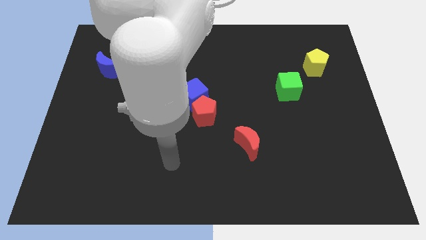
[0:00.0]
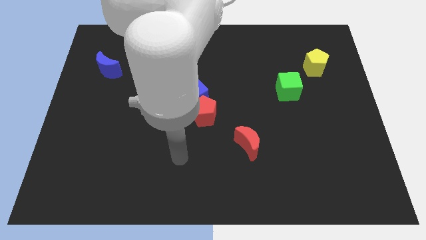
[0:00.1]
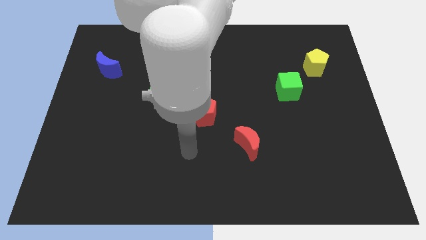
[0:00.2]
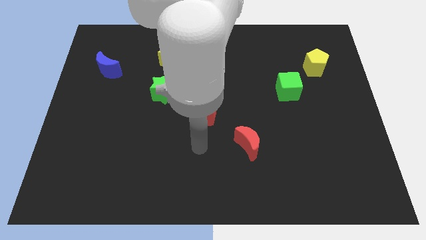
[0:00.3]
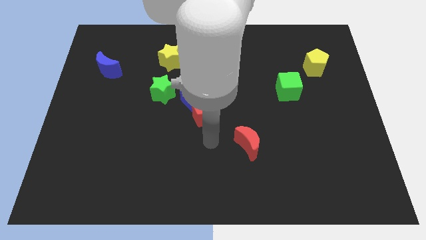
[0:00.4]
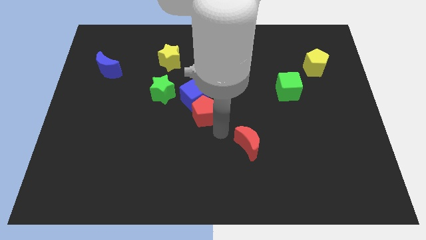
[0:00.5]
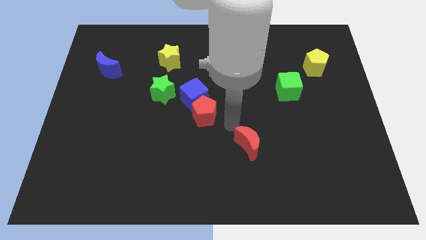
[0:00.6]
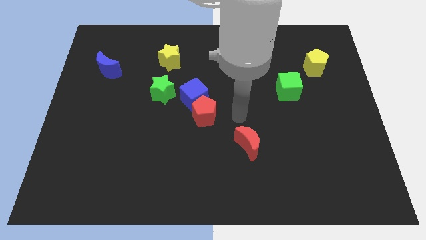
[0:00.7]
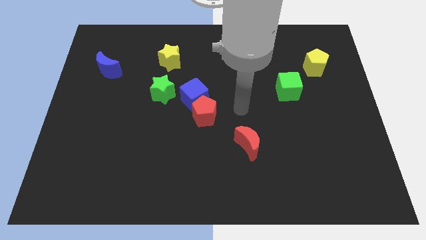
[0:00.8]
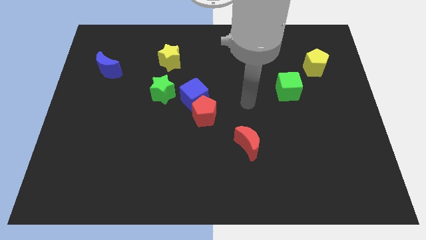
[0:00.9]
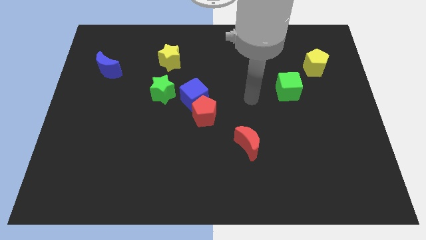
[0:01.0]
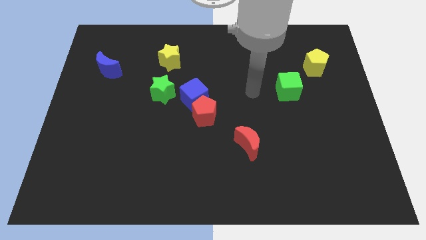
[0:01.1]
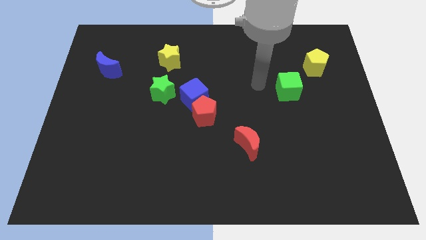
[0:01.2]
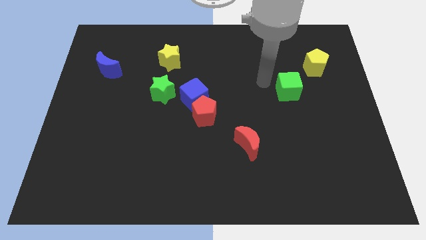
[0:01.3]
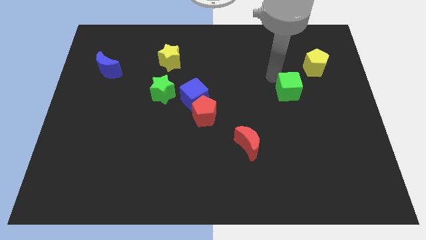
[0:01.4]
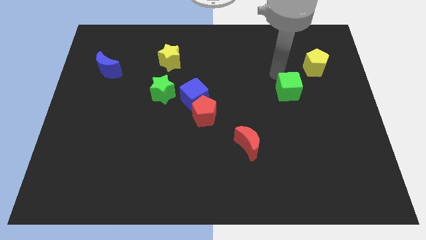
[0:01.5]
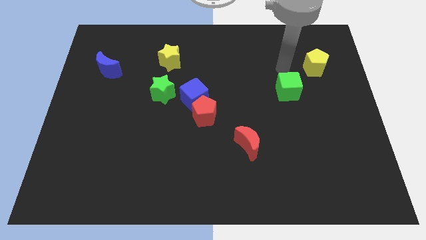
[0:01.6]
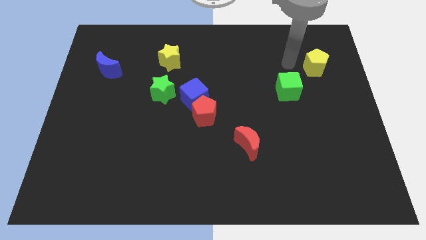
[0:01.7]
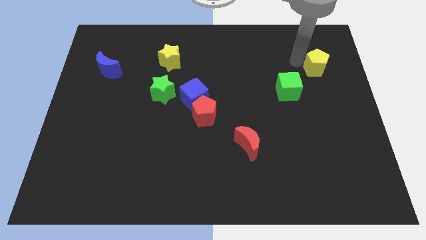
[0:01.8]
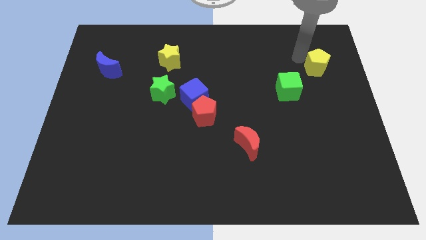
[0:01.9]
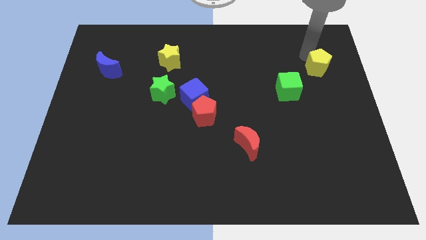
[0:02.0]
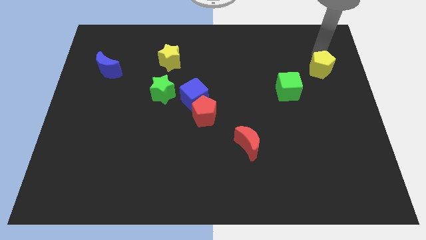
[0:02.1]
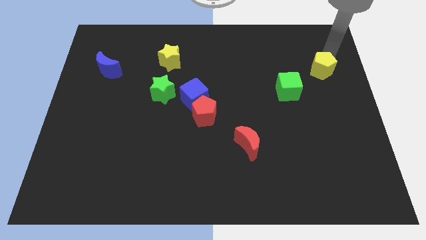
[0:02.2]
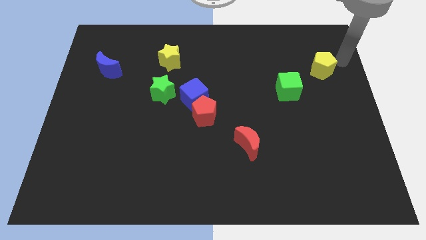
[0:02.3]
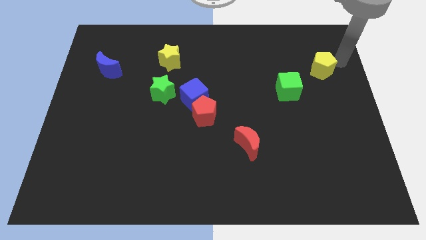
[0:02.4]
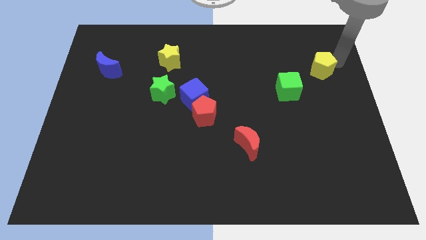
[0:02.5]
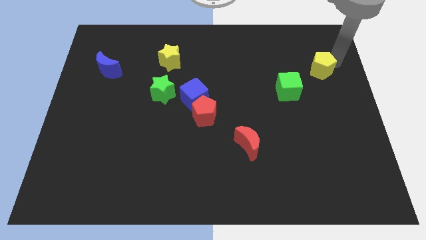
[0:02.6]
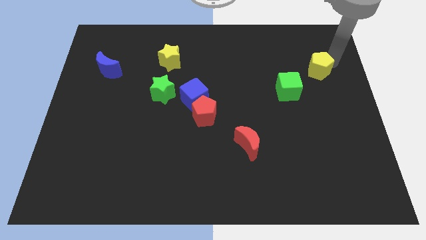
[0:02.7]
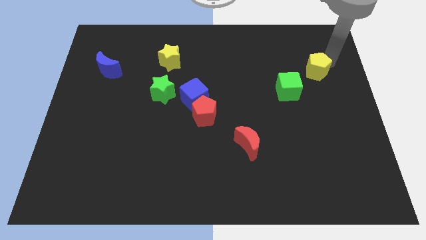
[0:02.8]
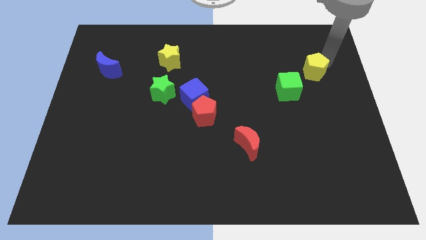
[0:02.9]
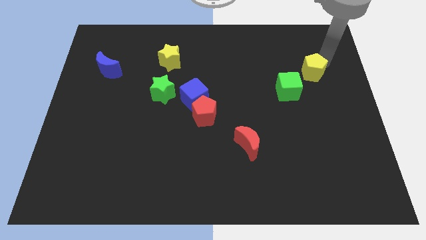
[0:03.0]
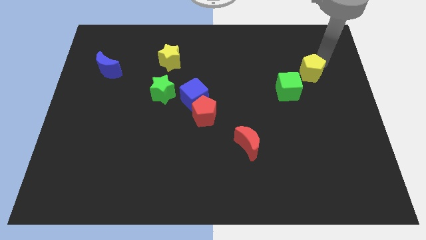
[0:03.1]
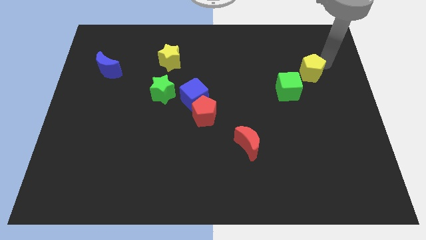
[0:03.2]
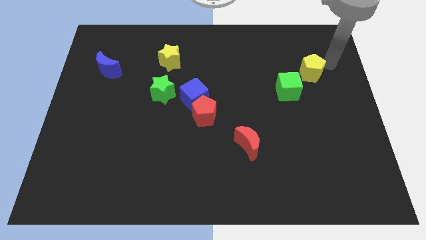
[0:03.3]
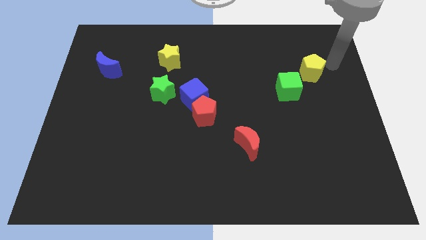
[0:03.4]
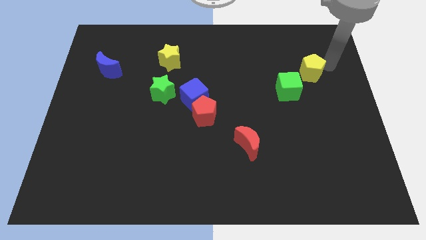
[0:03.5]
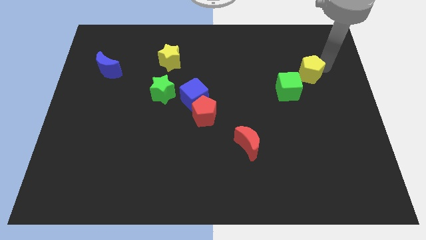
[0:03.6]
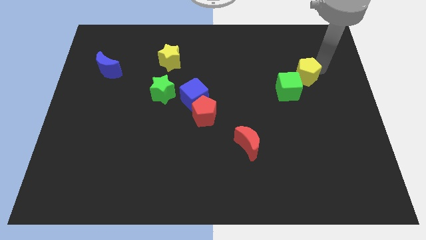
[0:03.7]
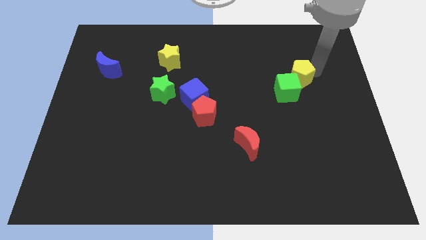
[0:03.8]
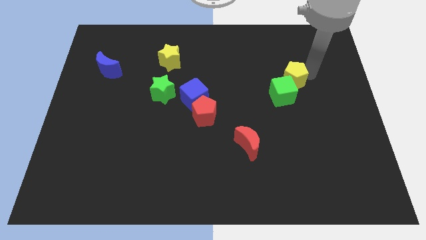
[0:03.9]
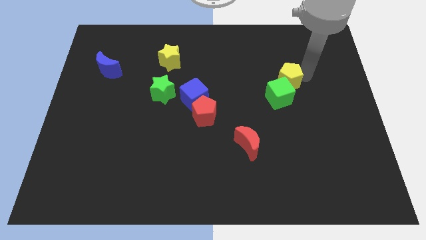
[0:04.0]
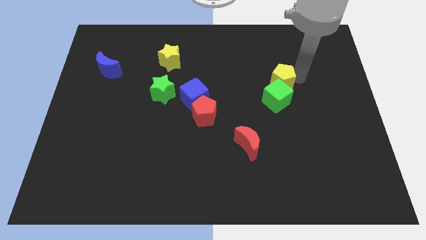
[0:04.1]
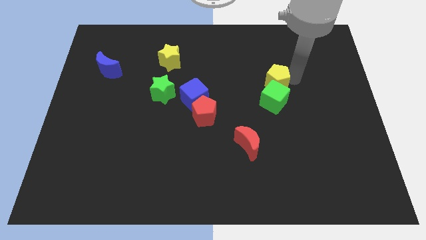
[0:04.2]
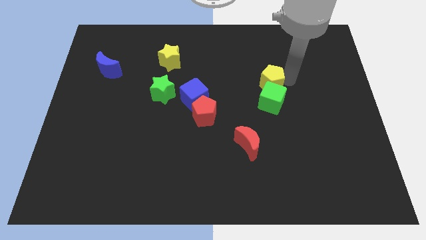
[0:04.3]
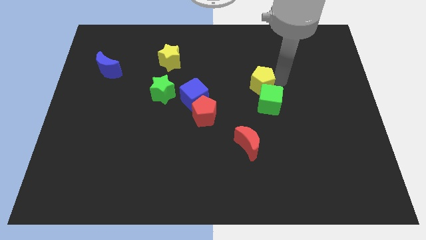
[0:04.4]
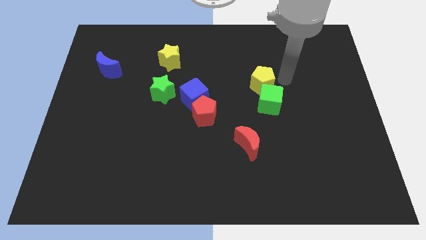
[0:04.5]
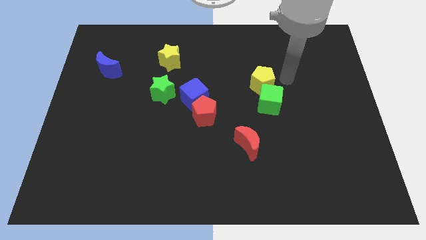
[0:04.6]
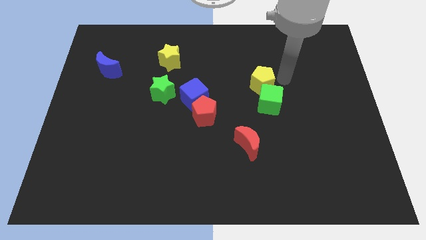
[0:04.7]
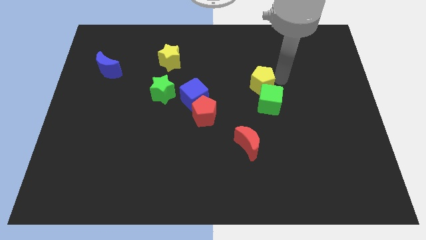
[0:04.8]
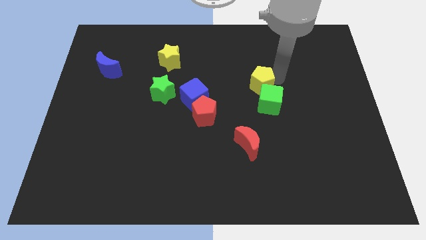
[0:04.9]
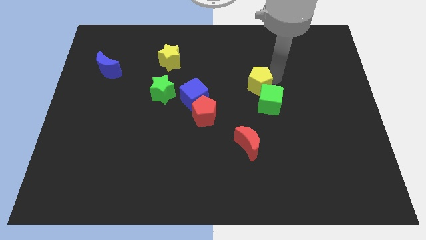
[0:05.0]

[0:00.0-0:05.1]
move the yellow pentagon to the middle of the board
